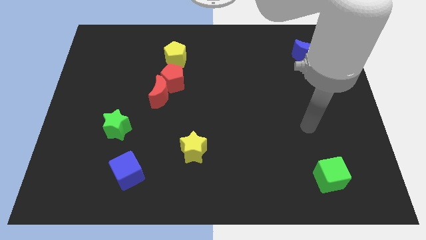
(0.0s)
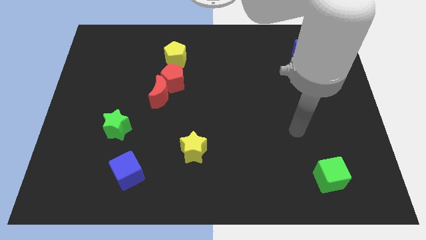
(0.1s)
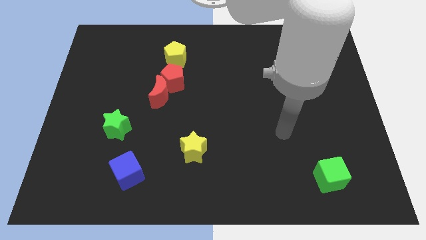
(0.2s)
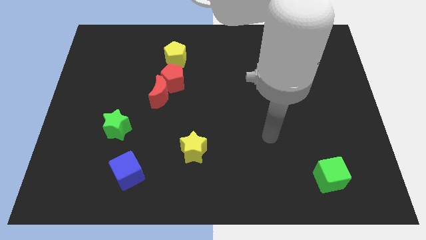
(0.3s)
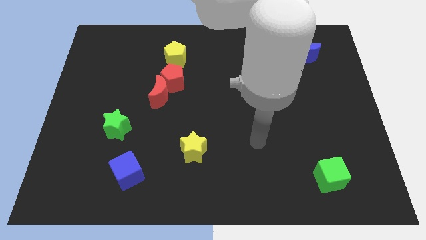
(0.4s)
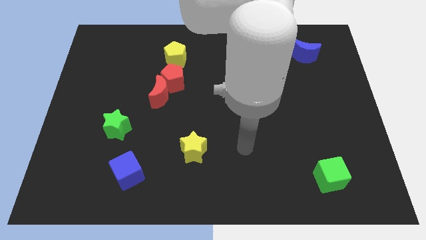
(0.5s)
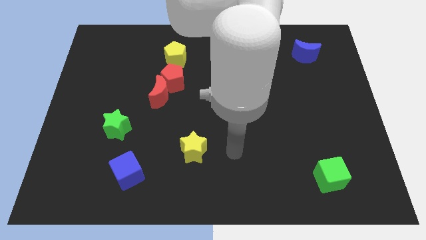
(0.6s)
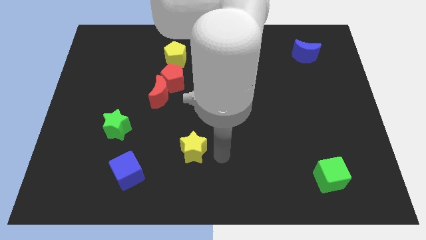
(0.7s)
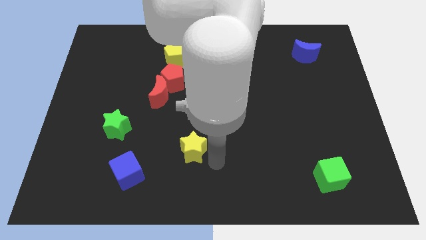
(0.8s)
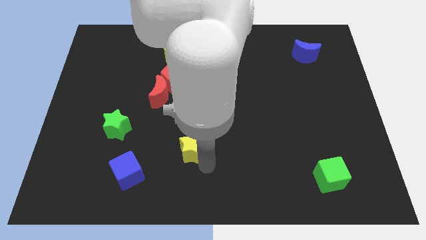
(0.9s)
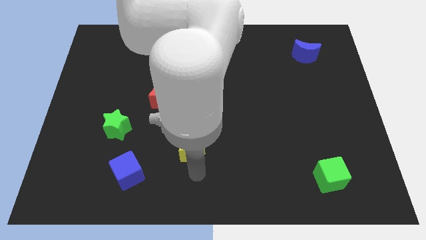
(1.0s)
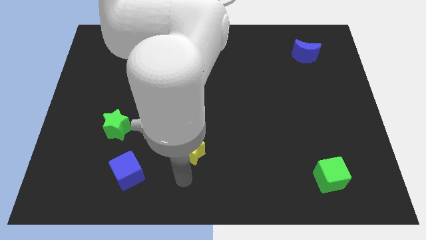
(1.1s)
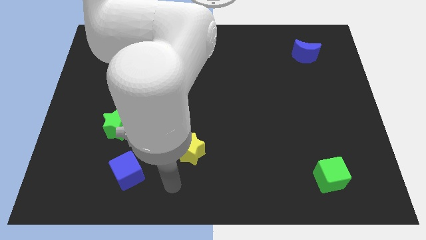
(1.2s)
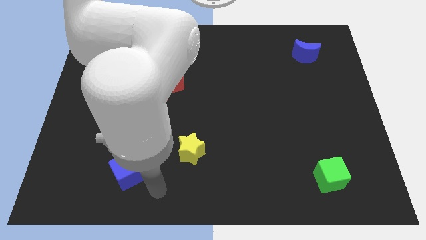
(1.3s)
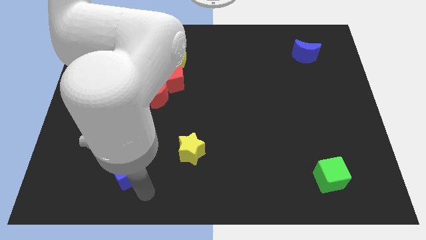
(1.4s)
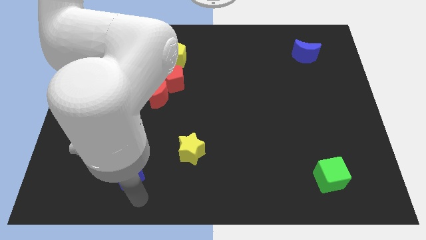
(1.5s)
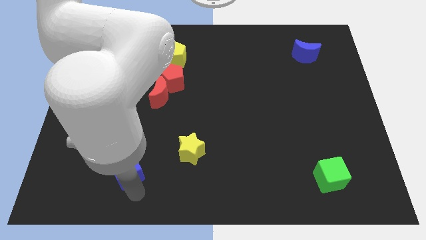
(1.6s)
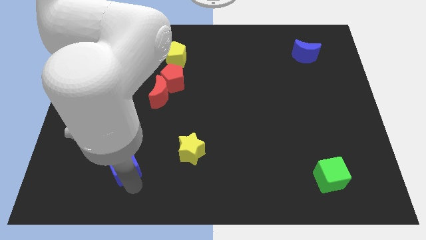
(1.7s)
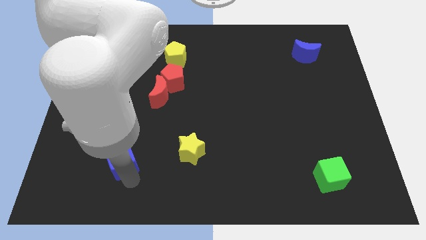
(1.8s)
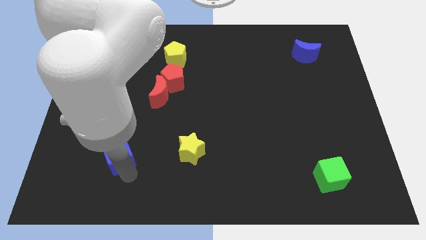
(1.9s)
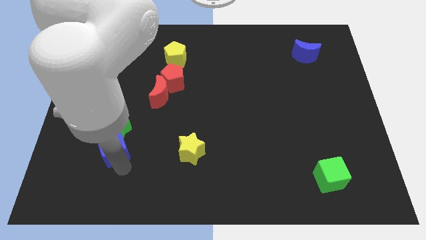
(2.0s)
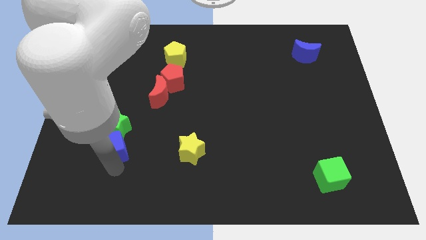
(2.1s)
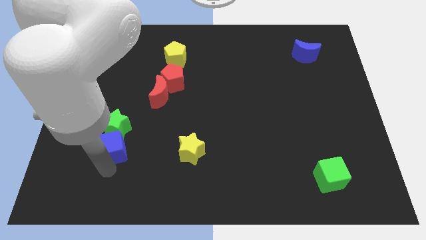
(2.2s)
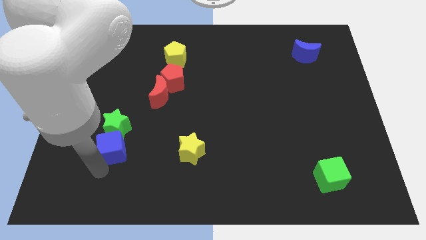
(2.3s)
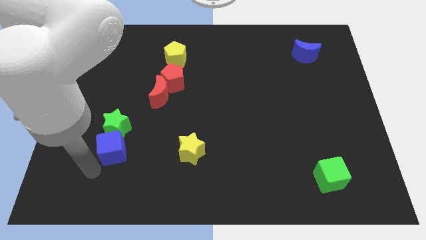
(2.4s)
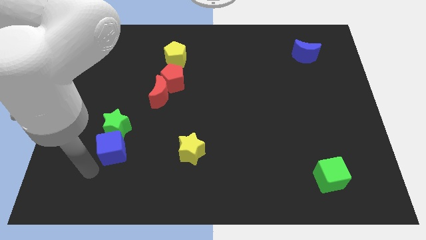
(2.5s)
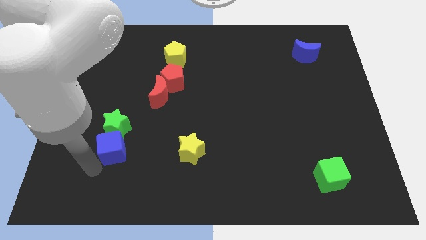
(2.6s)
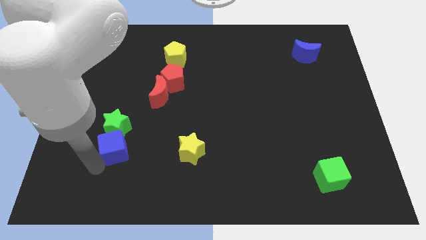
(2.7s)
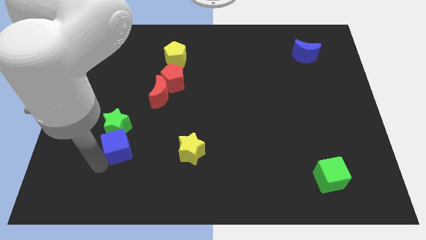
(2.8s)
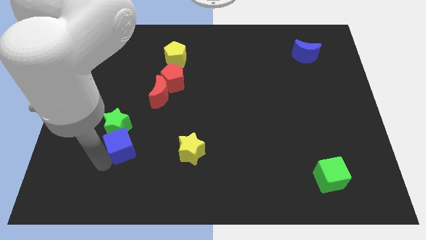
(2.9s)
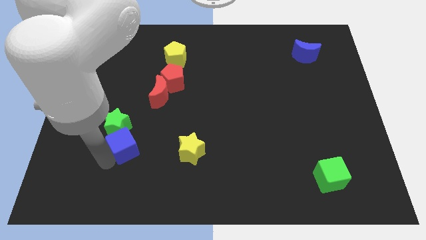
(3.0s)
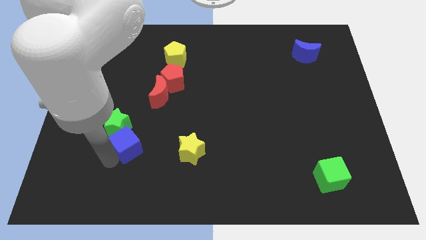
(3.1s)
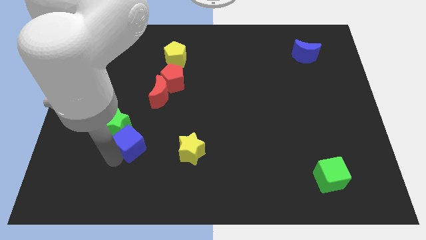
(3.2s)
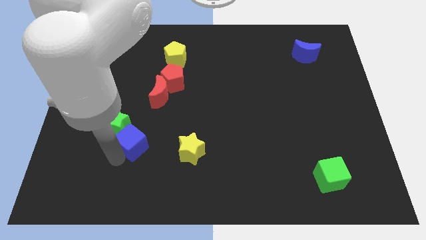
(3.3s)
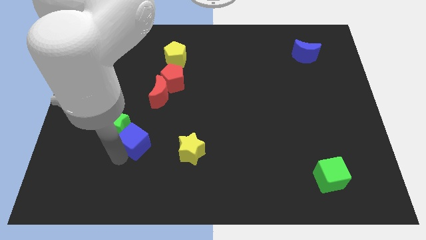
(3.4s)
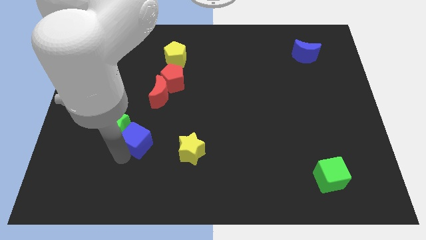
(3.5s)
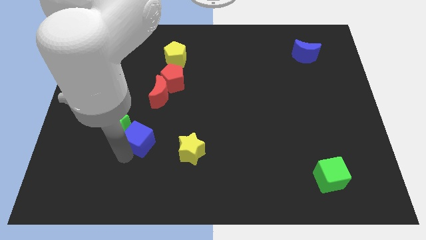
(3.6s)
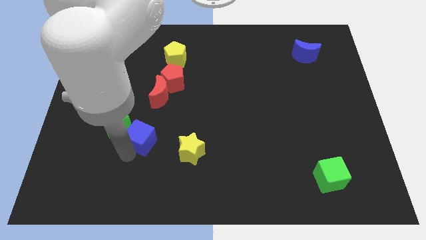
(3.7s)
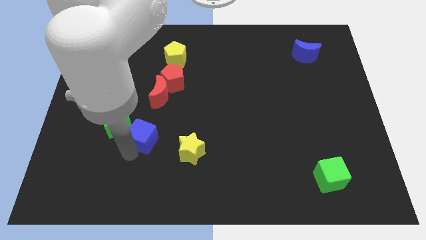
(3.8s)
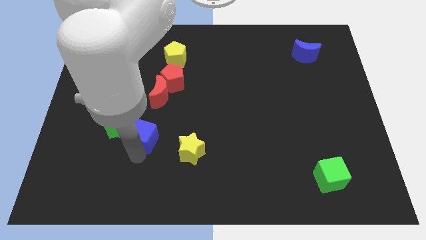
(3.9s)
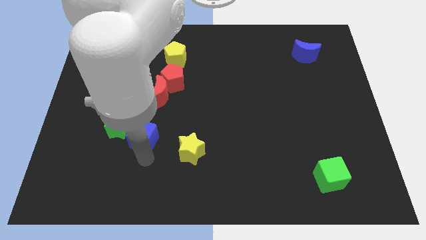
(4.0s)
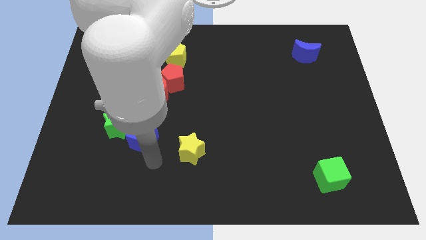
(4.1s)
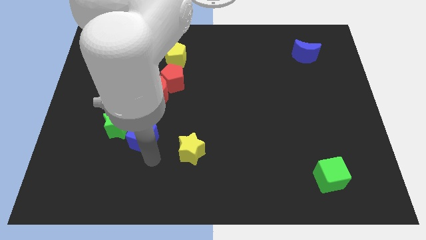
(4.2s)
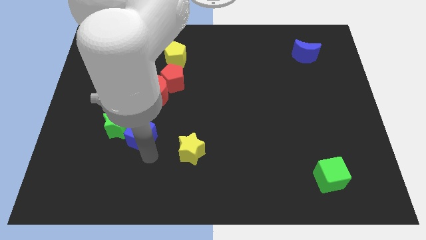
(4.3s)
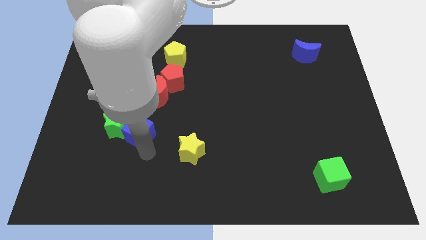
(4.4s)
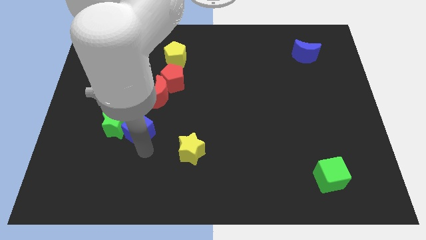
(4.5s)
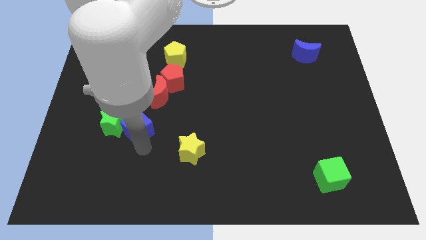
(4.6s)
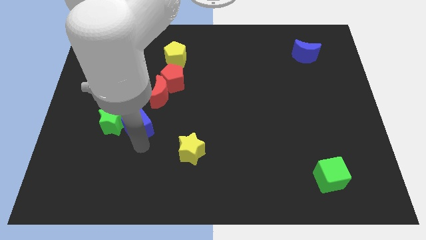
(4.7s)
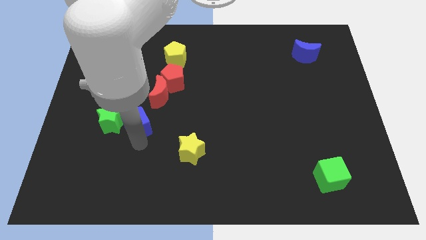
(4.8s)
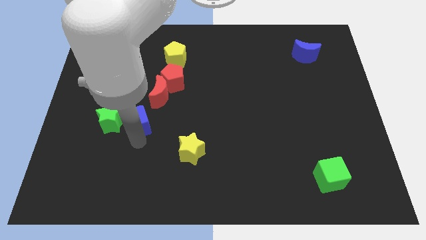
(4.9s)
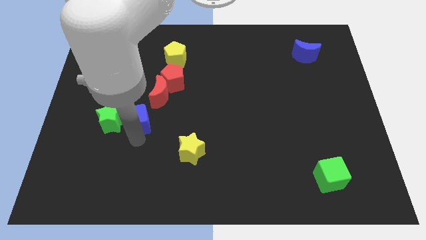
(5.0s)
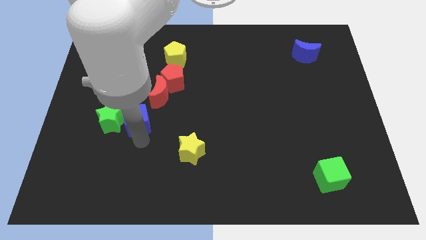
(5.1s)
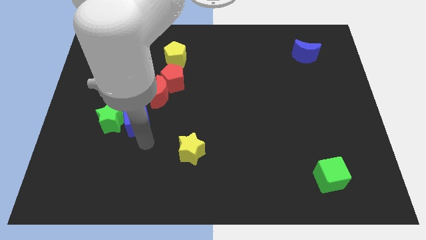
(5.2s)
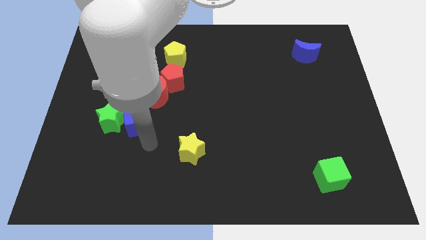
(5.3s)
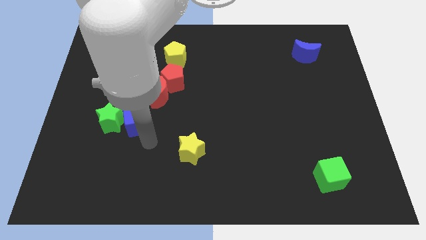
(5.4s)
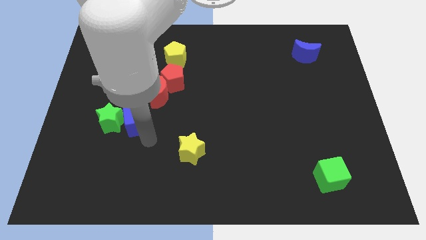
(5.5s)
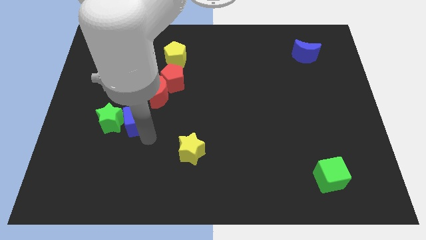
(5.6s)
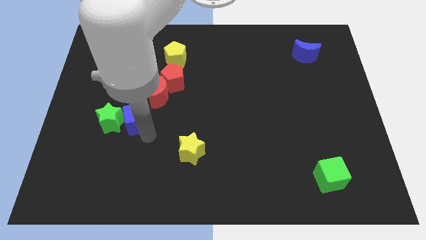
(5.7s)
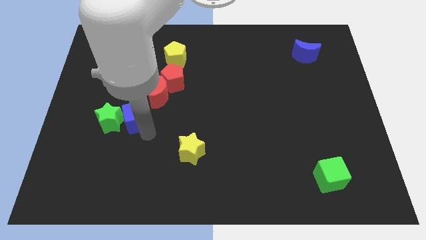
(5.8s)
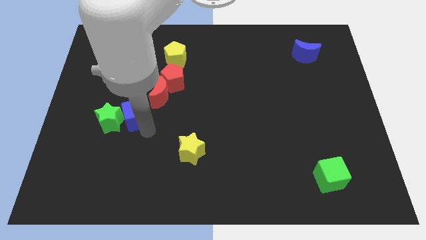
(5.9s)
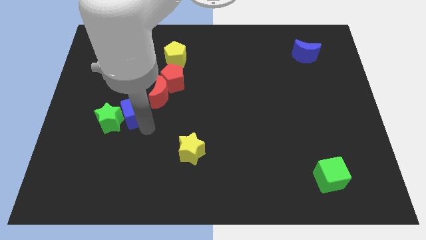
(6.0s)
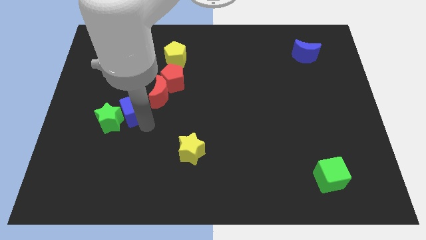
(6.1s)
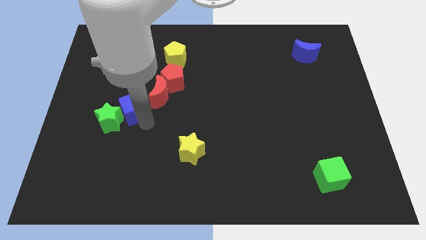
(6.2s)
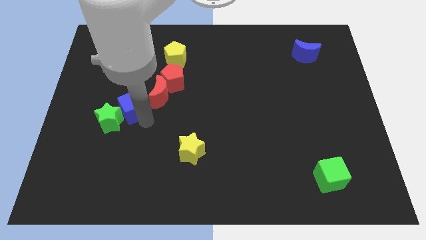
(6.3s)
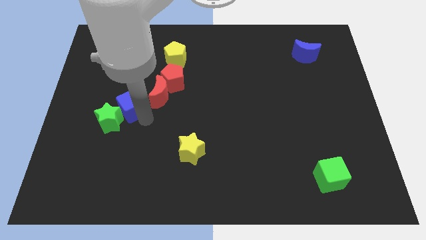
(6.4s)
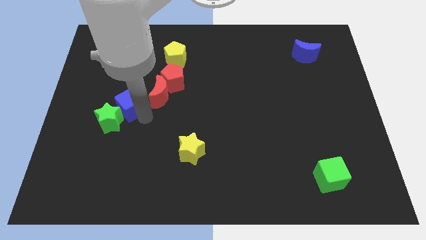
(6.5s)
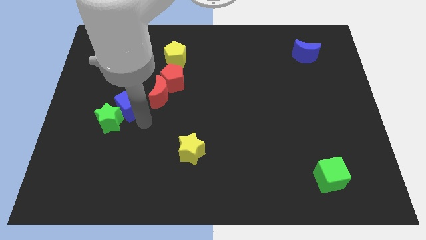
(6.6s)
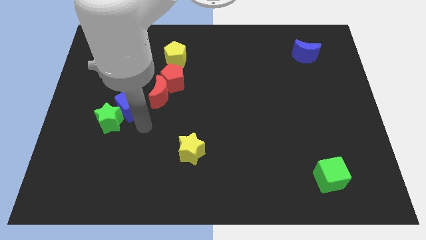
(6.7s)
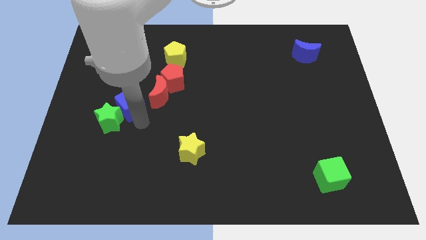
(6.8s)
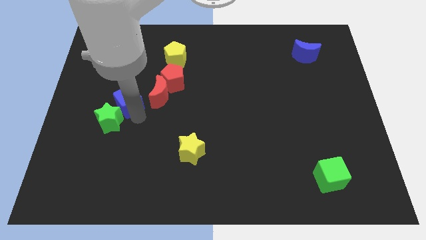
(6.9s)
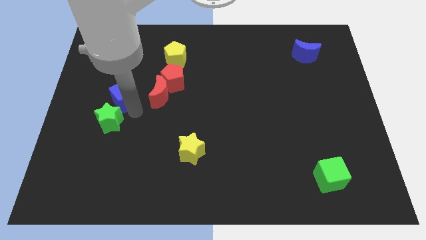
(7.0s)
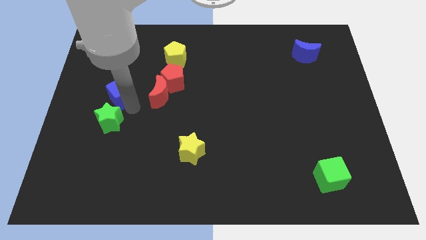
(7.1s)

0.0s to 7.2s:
slide the blue cube up

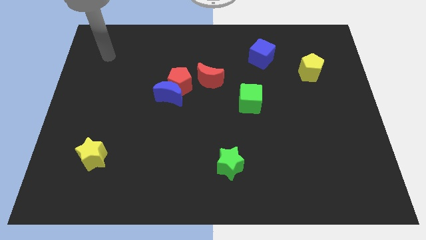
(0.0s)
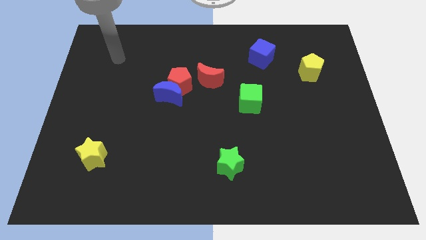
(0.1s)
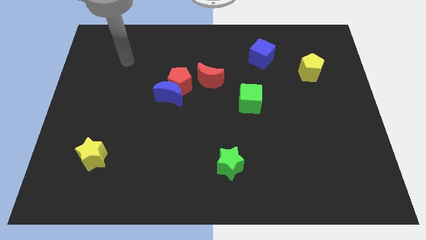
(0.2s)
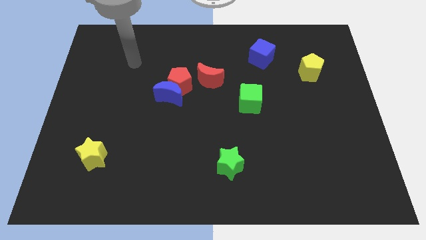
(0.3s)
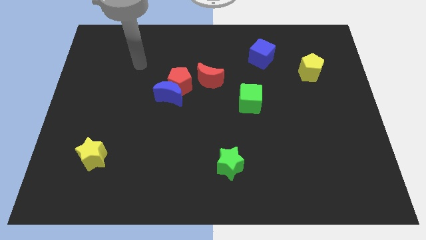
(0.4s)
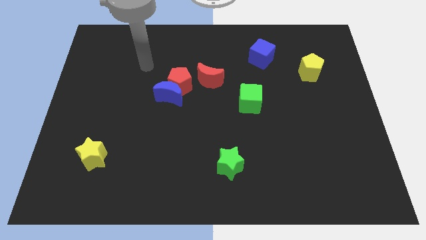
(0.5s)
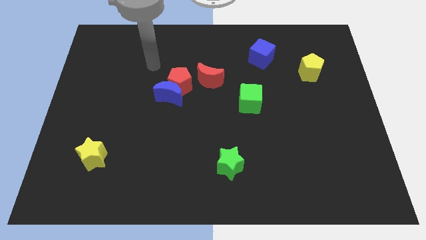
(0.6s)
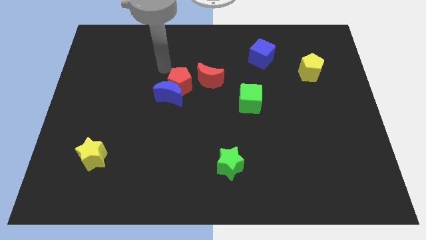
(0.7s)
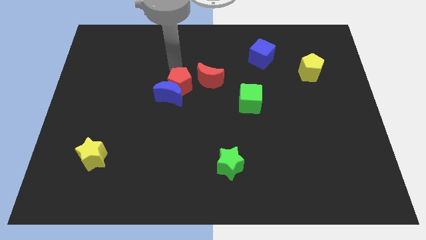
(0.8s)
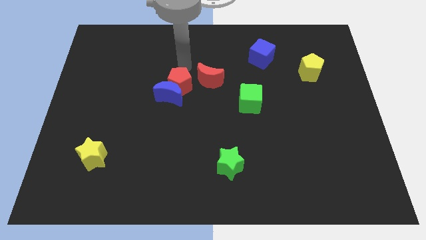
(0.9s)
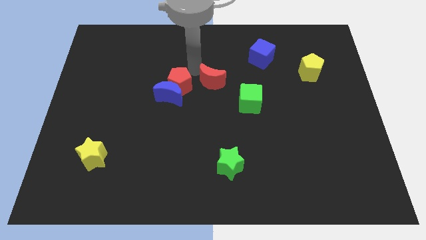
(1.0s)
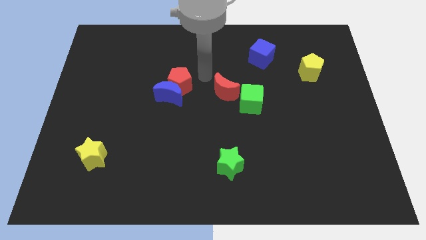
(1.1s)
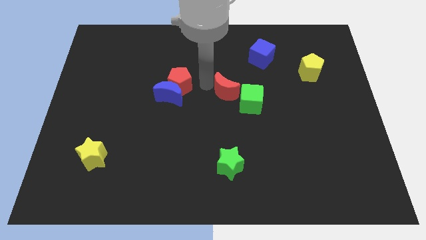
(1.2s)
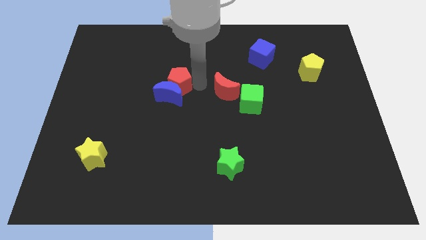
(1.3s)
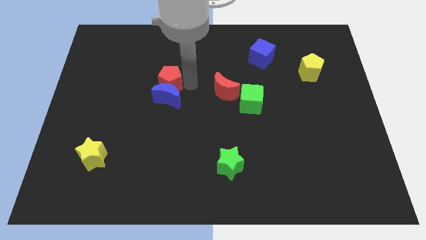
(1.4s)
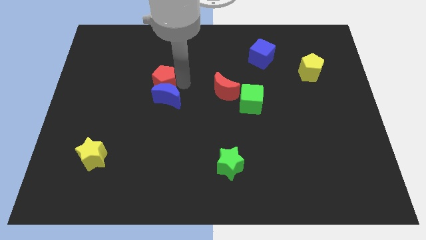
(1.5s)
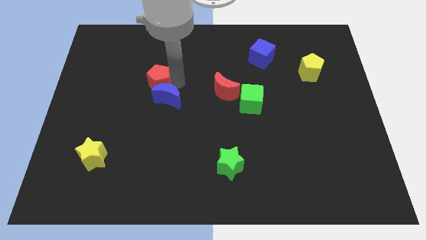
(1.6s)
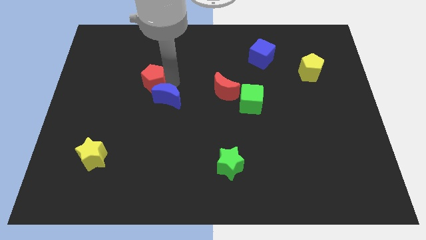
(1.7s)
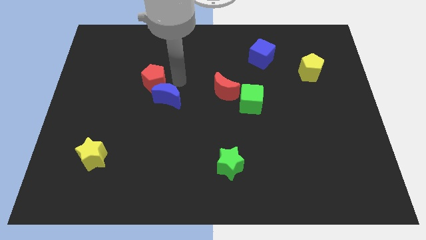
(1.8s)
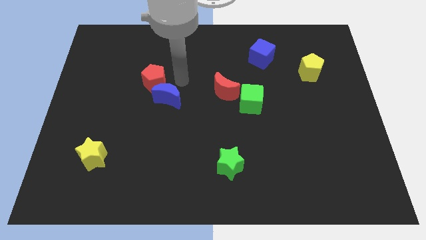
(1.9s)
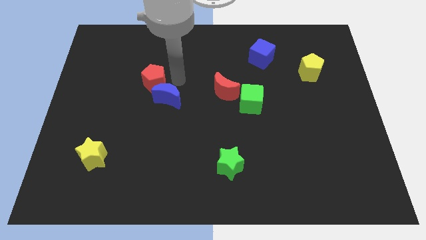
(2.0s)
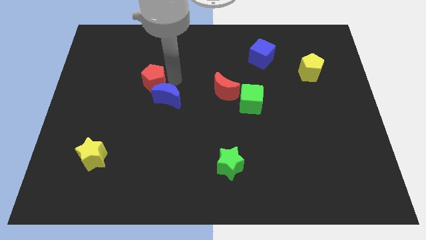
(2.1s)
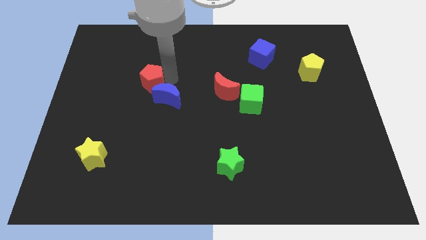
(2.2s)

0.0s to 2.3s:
slide the red pentagon a bit left
